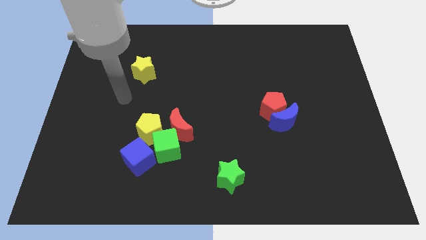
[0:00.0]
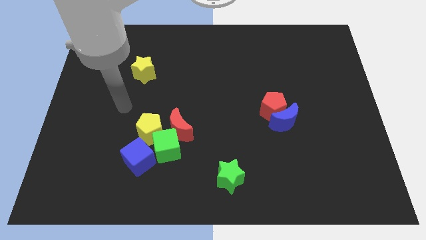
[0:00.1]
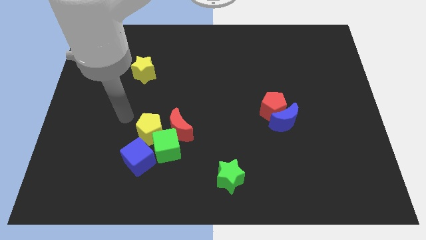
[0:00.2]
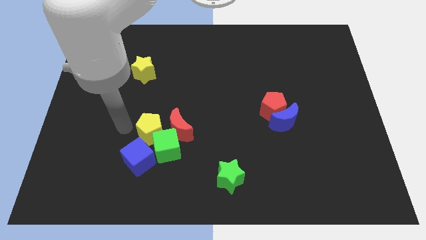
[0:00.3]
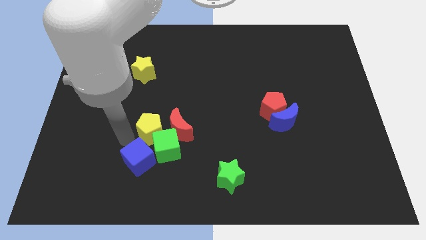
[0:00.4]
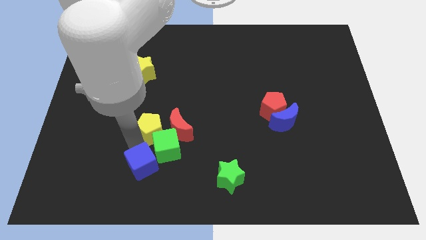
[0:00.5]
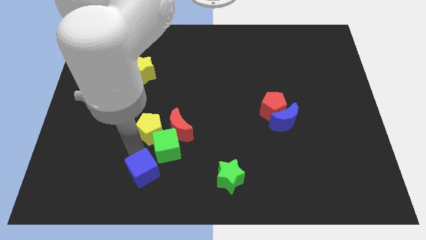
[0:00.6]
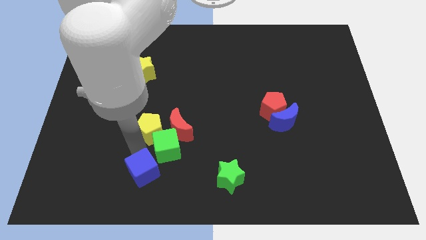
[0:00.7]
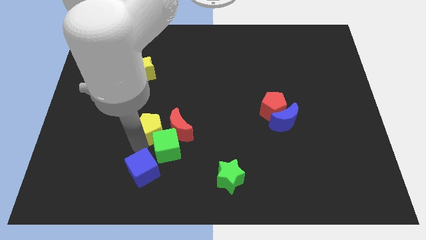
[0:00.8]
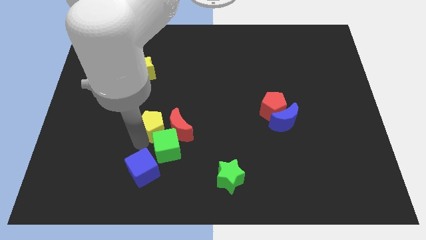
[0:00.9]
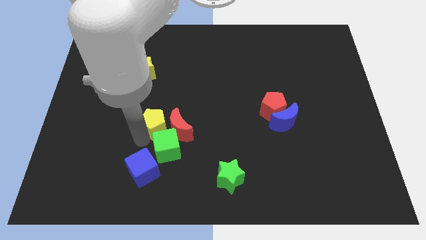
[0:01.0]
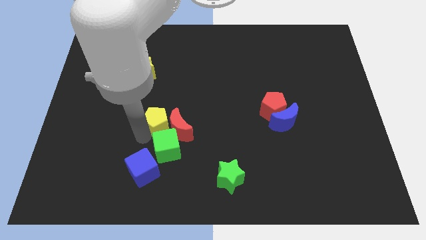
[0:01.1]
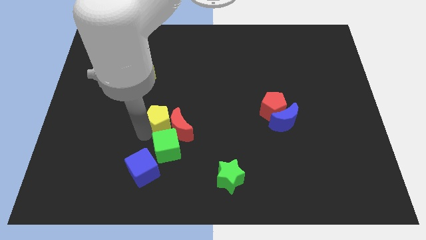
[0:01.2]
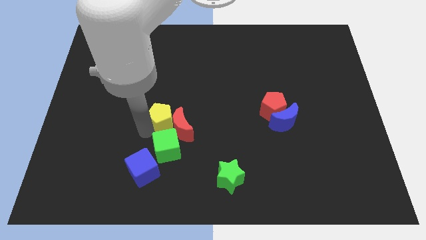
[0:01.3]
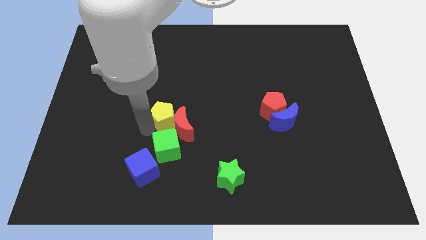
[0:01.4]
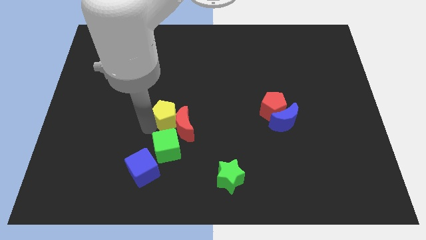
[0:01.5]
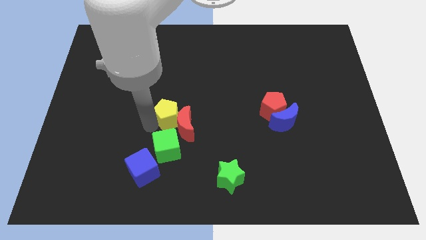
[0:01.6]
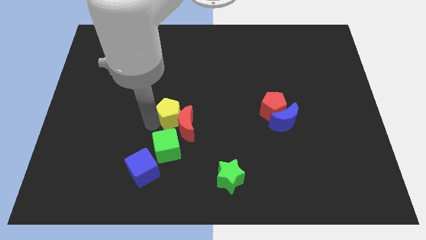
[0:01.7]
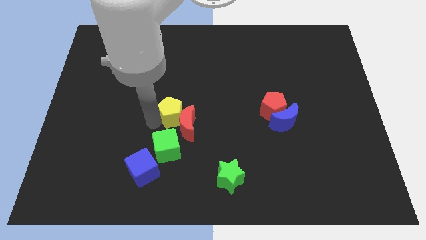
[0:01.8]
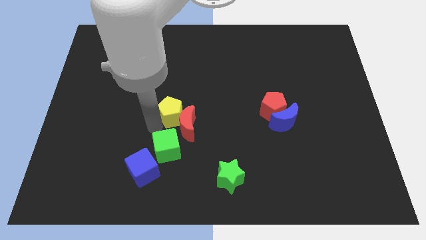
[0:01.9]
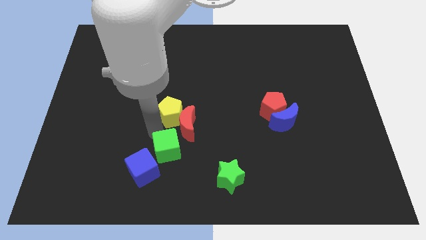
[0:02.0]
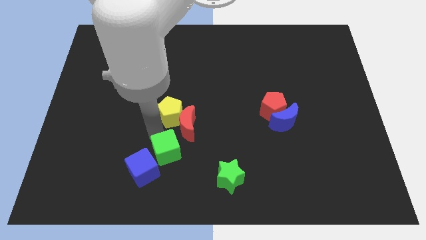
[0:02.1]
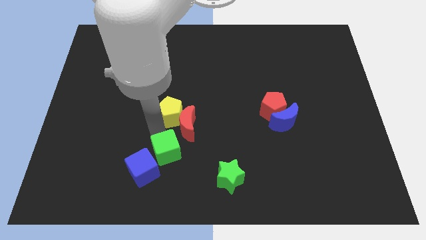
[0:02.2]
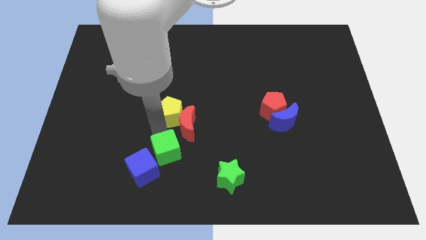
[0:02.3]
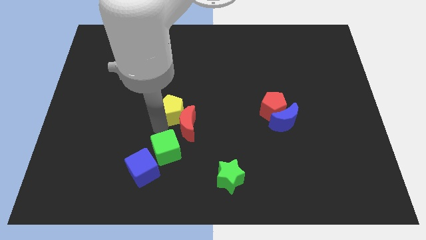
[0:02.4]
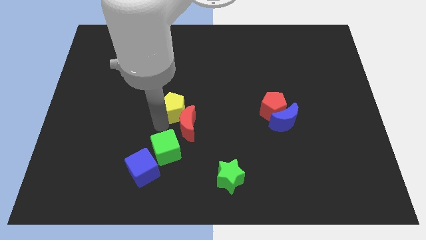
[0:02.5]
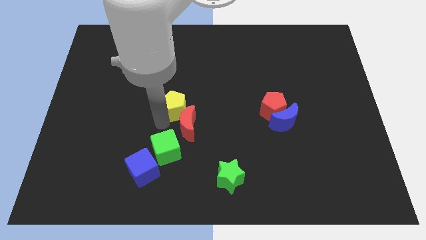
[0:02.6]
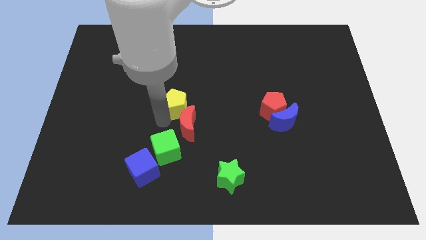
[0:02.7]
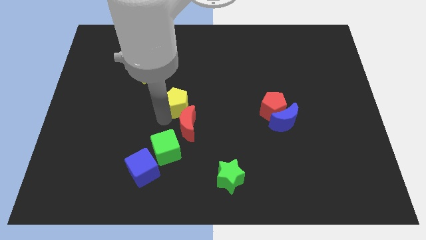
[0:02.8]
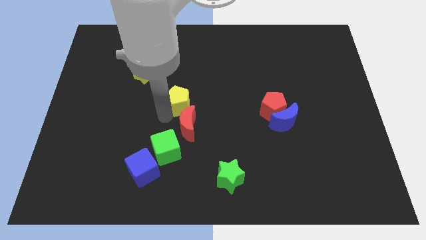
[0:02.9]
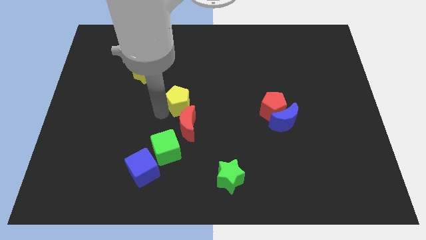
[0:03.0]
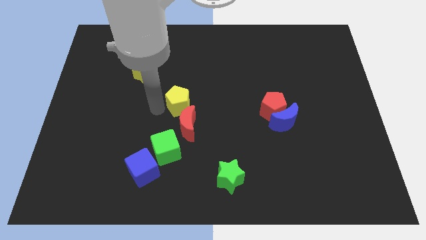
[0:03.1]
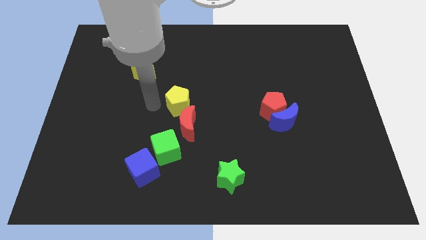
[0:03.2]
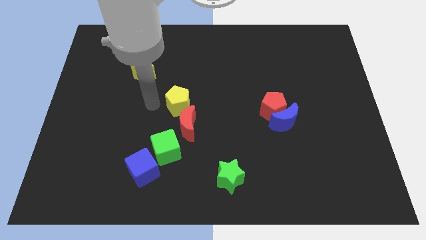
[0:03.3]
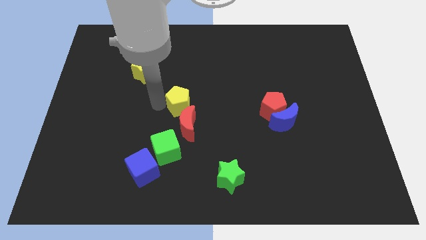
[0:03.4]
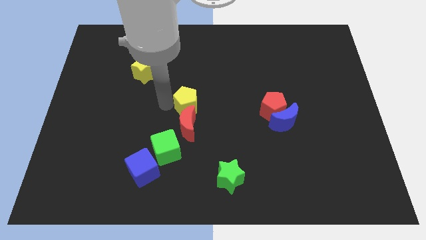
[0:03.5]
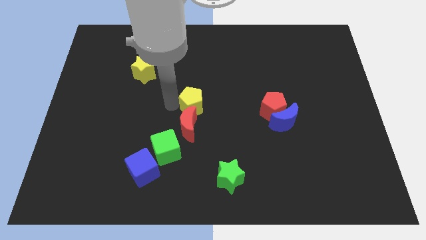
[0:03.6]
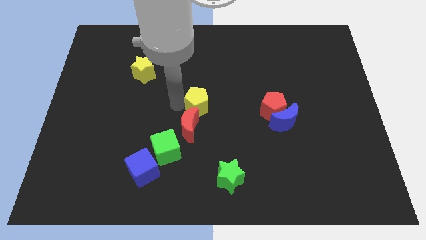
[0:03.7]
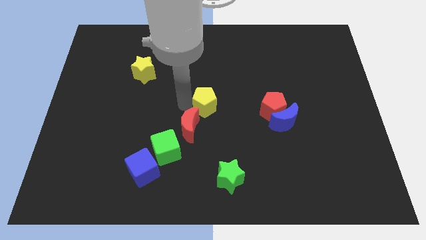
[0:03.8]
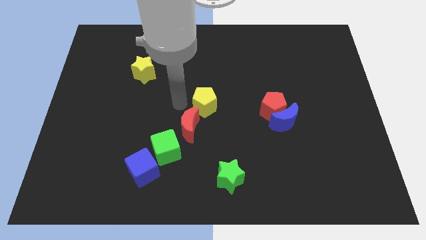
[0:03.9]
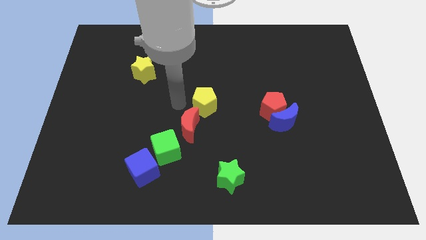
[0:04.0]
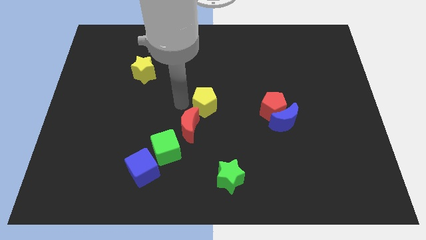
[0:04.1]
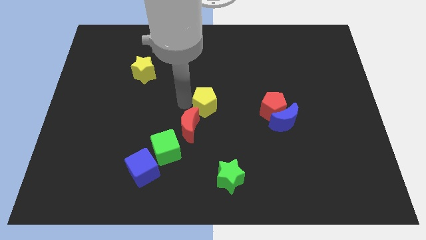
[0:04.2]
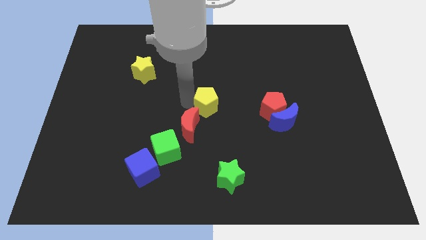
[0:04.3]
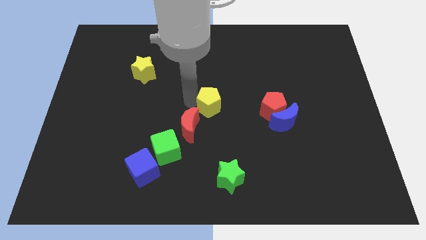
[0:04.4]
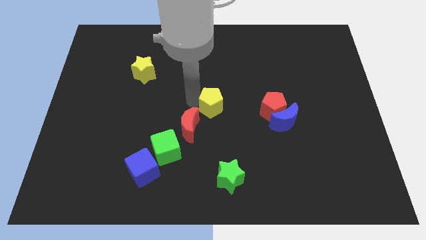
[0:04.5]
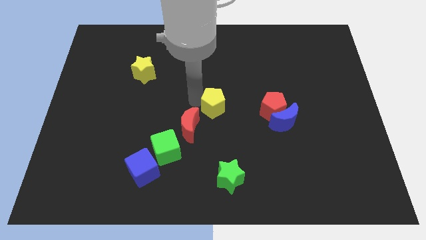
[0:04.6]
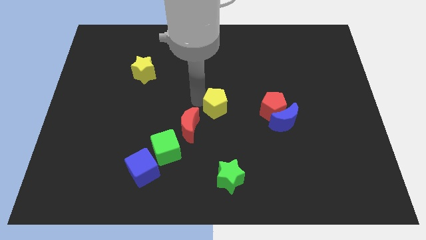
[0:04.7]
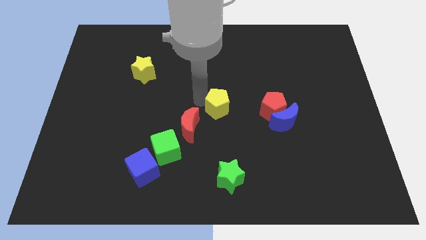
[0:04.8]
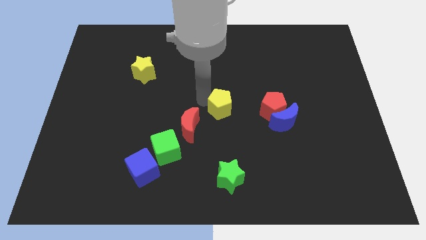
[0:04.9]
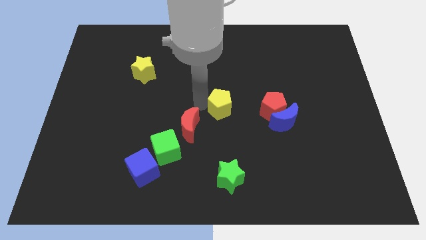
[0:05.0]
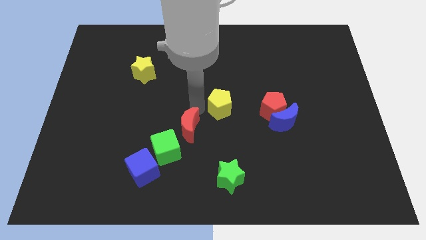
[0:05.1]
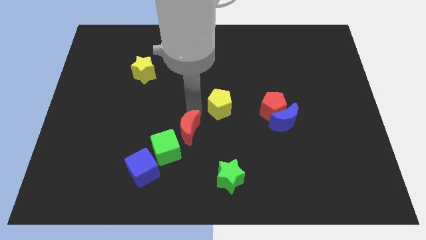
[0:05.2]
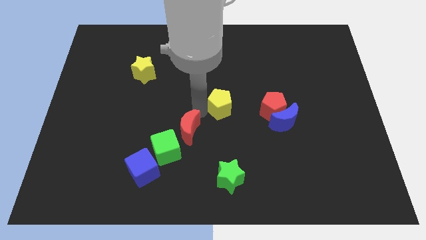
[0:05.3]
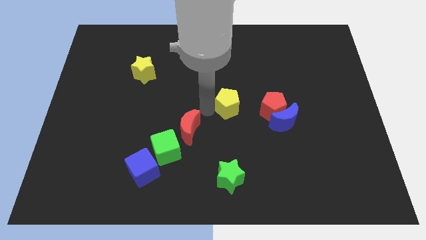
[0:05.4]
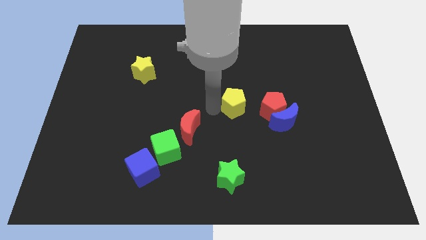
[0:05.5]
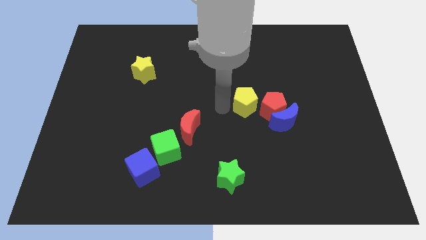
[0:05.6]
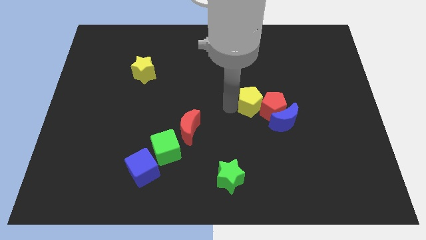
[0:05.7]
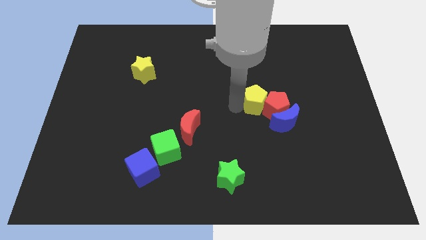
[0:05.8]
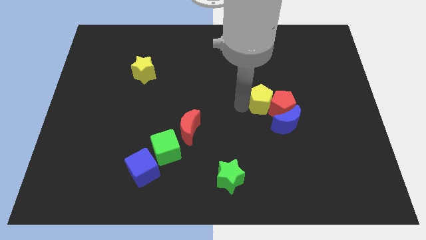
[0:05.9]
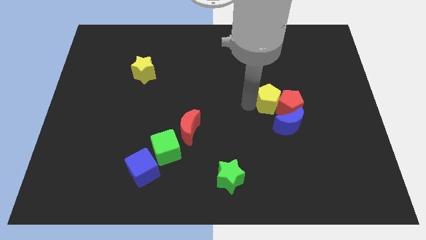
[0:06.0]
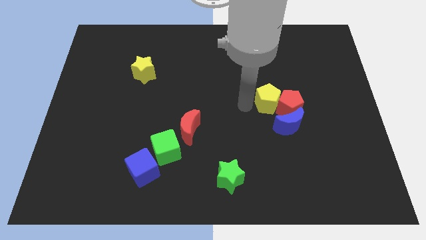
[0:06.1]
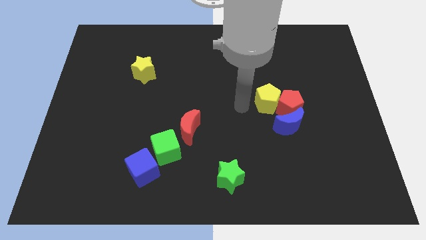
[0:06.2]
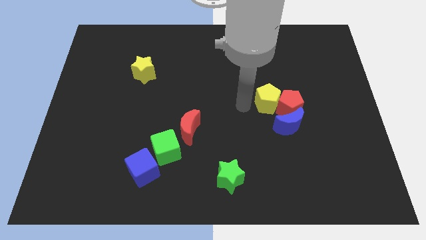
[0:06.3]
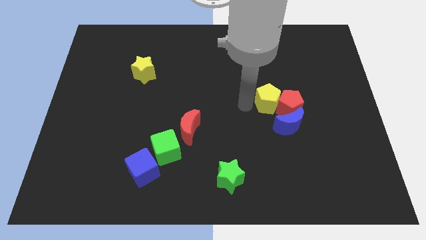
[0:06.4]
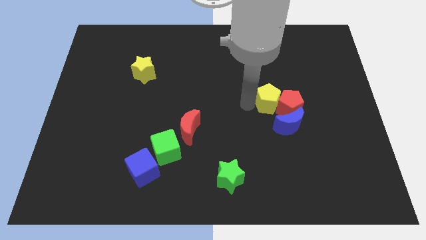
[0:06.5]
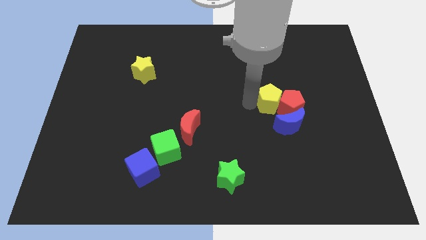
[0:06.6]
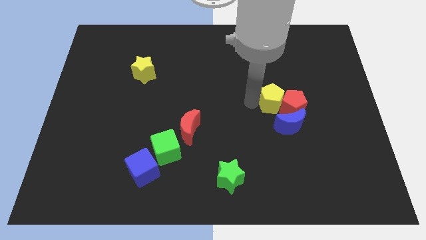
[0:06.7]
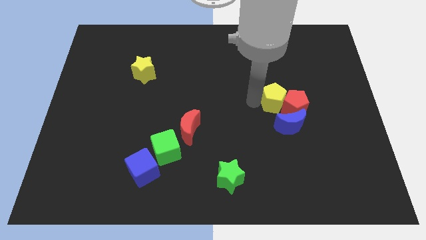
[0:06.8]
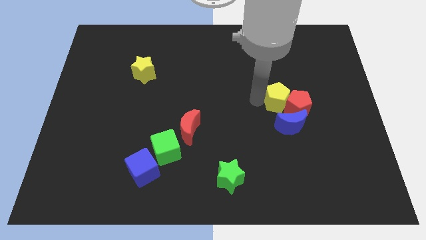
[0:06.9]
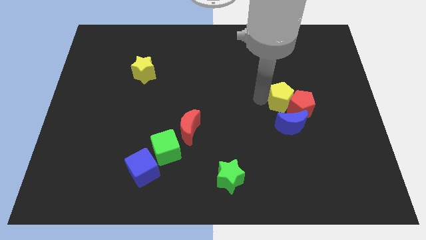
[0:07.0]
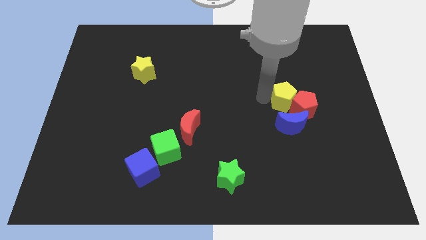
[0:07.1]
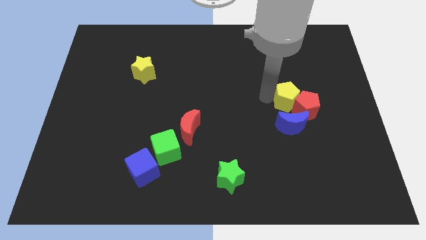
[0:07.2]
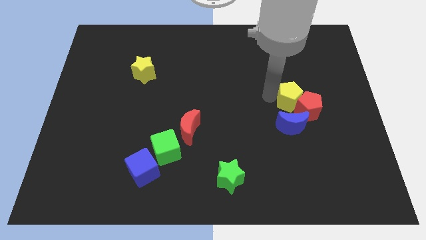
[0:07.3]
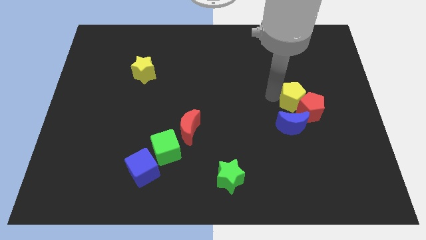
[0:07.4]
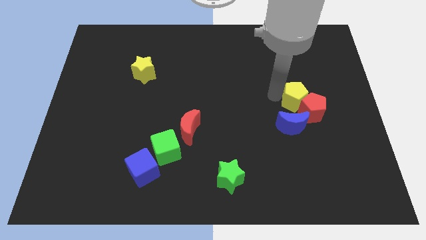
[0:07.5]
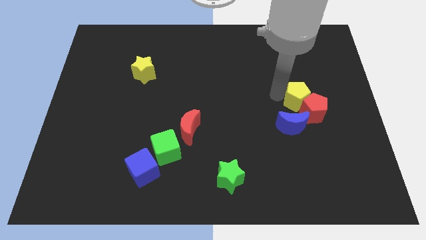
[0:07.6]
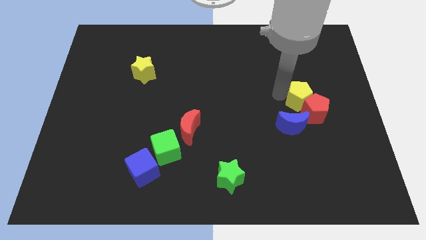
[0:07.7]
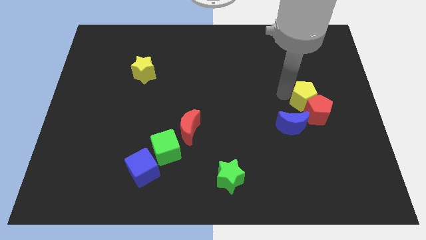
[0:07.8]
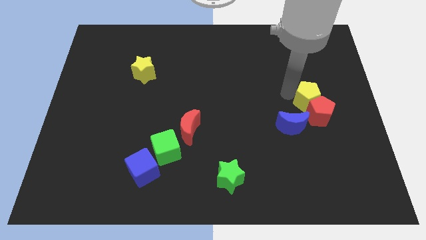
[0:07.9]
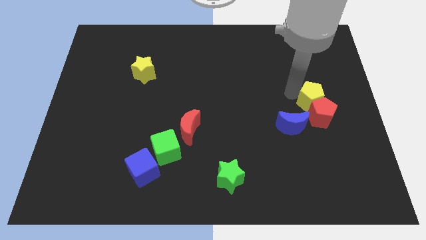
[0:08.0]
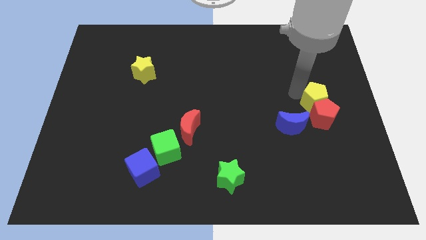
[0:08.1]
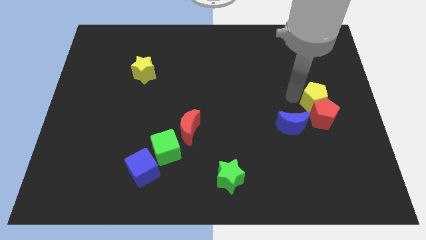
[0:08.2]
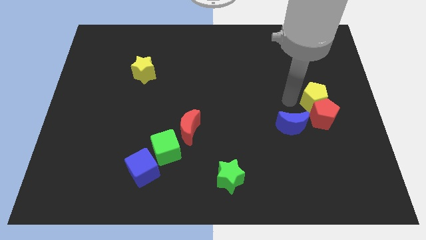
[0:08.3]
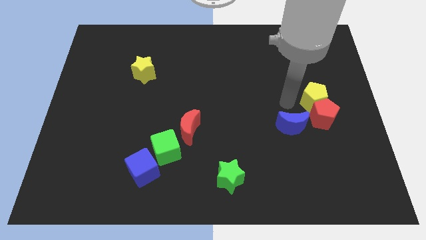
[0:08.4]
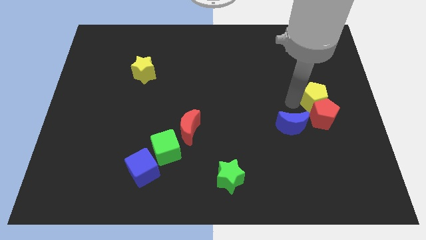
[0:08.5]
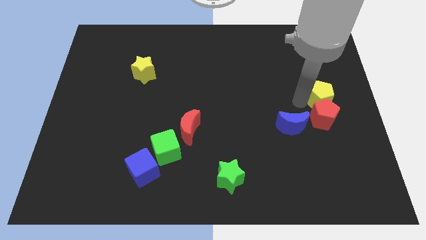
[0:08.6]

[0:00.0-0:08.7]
put the yellow pentagon to the right side of the board
